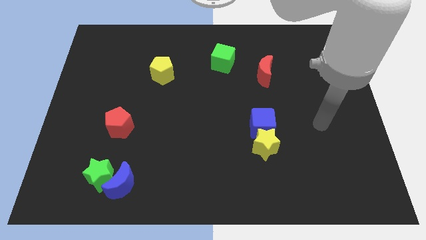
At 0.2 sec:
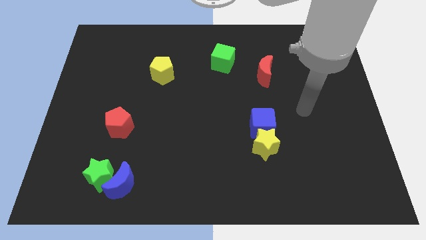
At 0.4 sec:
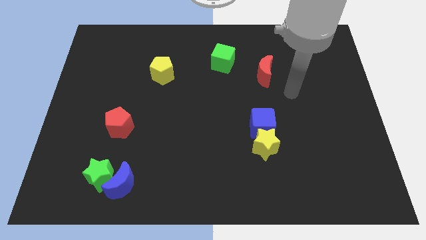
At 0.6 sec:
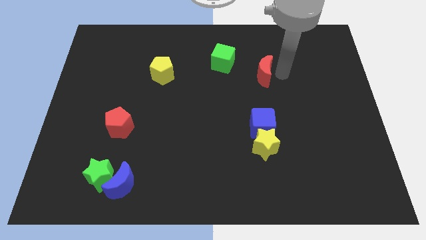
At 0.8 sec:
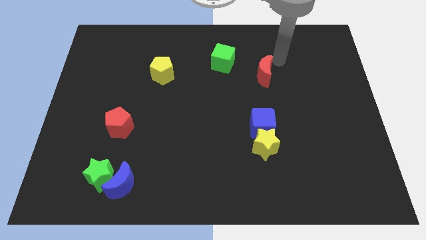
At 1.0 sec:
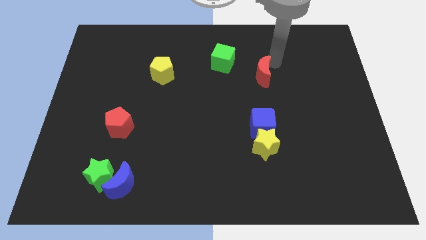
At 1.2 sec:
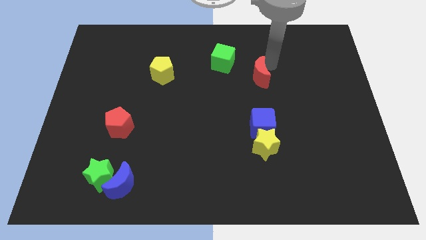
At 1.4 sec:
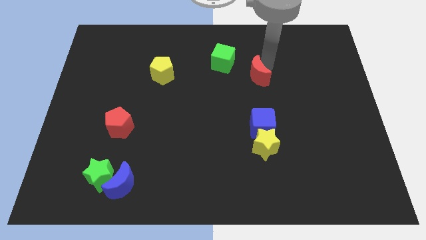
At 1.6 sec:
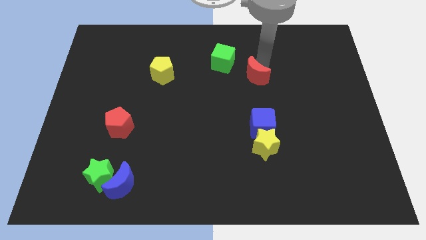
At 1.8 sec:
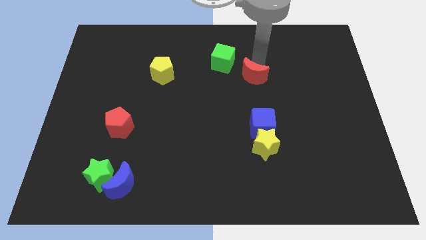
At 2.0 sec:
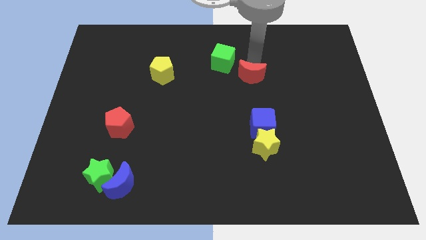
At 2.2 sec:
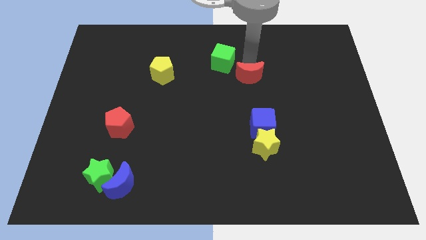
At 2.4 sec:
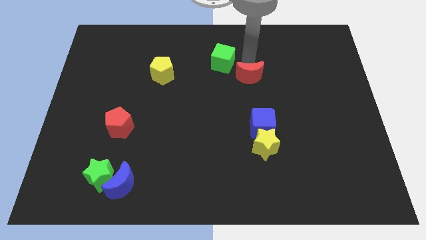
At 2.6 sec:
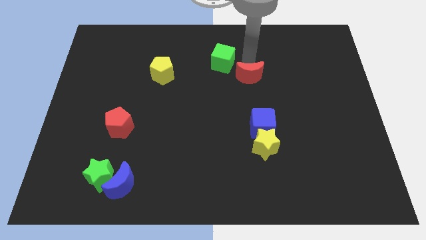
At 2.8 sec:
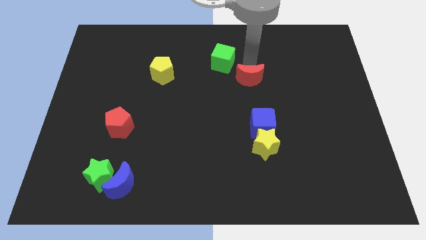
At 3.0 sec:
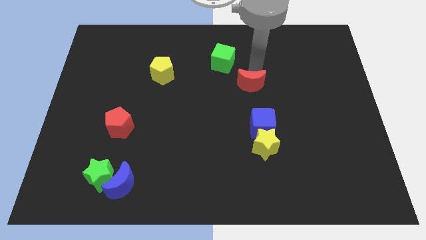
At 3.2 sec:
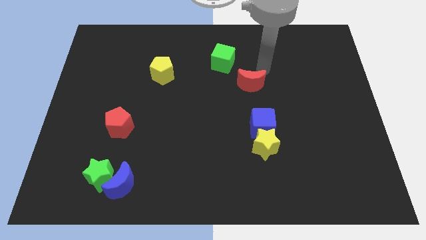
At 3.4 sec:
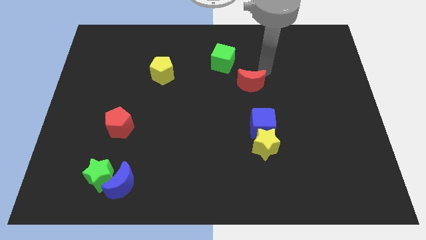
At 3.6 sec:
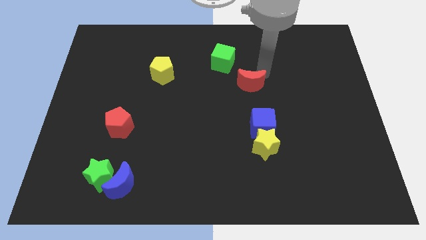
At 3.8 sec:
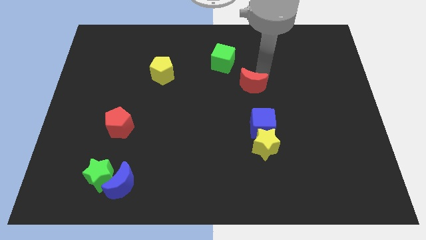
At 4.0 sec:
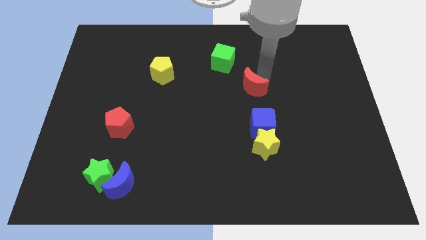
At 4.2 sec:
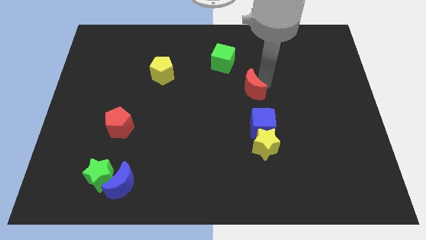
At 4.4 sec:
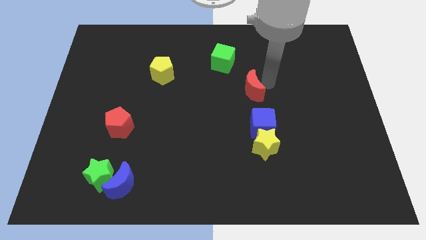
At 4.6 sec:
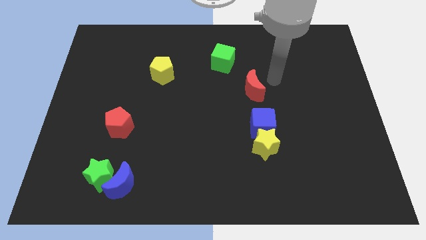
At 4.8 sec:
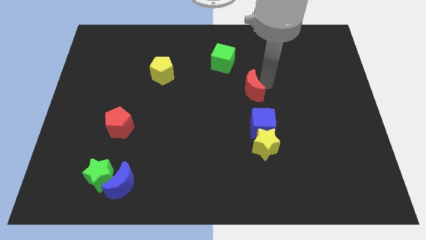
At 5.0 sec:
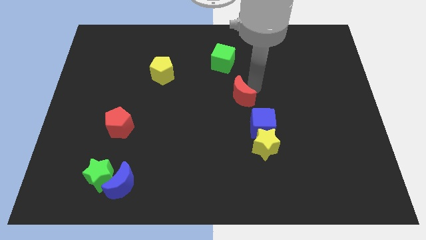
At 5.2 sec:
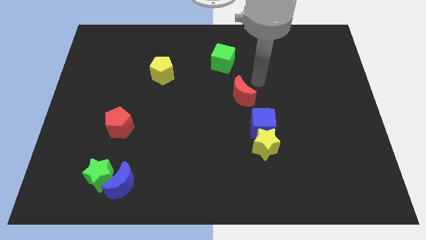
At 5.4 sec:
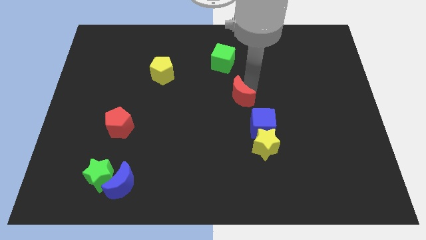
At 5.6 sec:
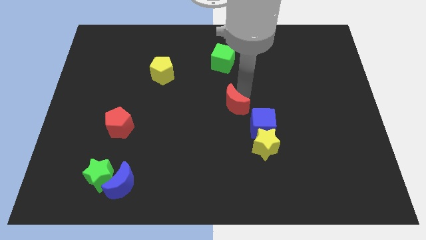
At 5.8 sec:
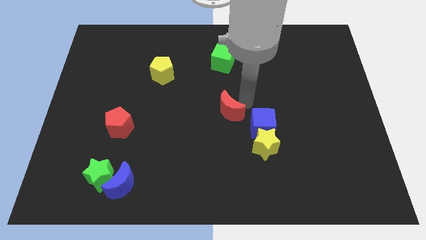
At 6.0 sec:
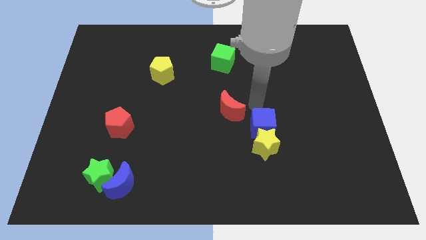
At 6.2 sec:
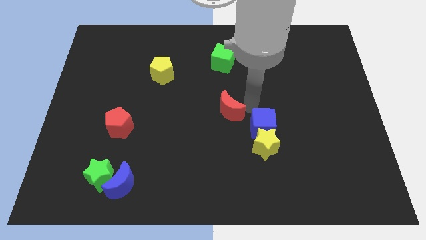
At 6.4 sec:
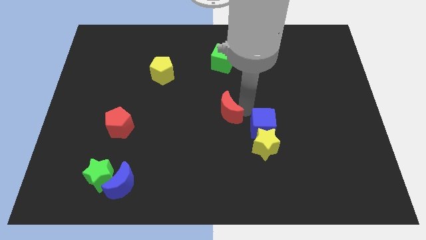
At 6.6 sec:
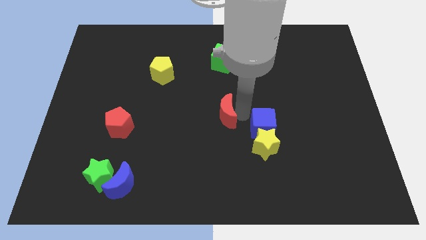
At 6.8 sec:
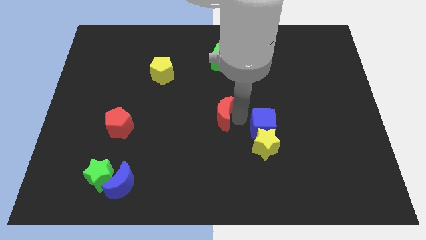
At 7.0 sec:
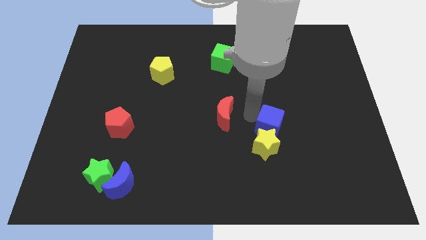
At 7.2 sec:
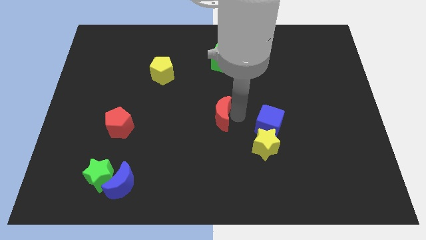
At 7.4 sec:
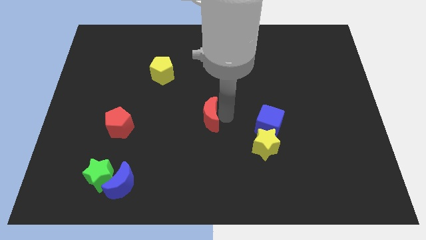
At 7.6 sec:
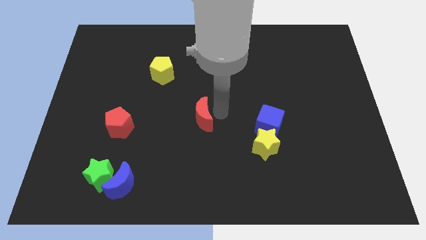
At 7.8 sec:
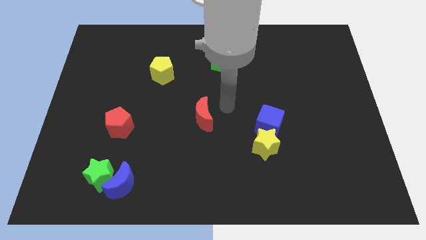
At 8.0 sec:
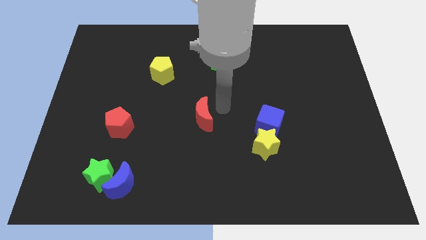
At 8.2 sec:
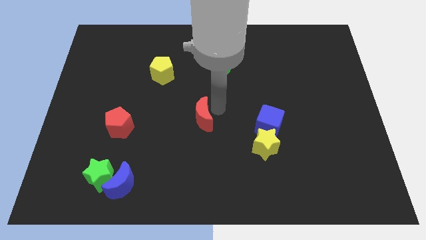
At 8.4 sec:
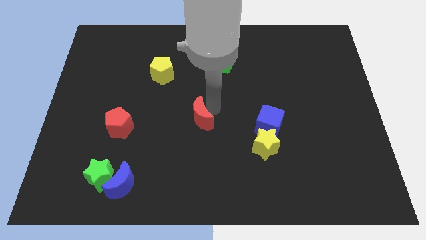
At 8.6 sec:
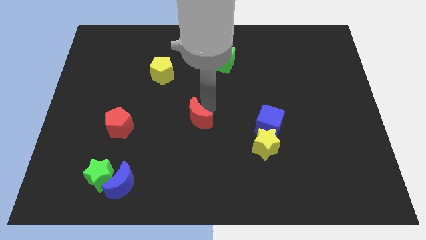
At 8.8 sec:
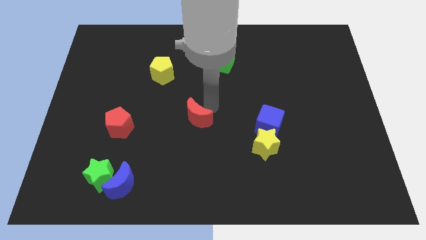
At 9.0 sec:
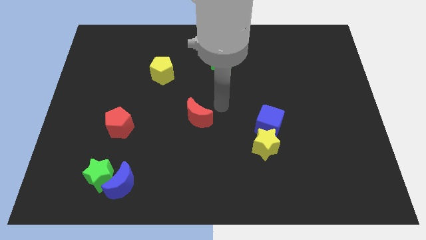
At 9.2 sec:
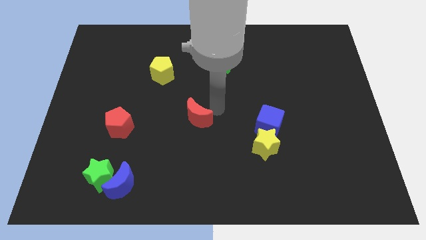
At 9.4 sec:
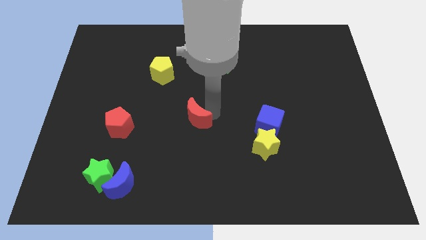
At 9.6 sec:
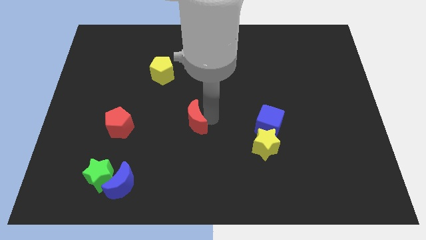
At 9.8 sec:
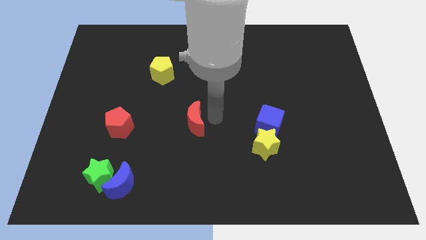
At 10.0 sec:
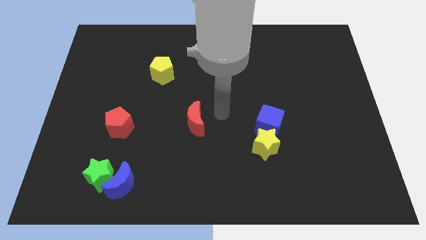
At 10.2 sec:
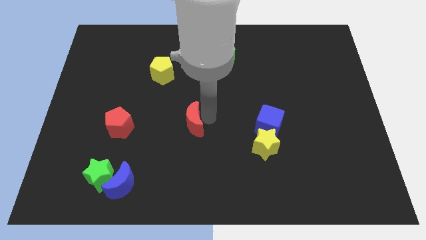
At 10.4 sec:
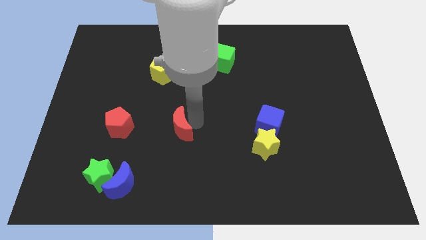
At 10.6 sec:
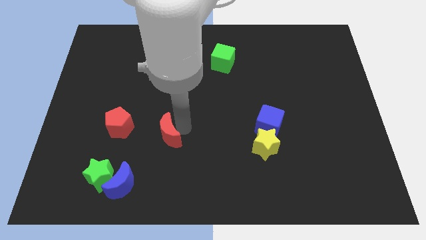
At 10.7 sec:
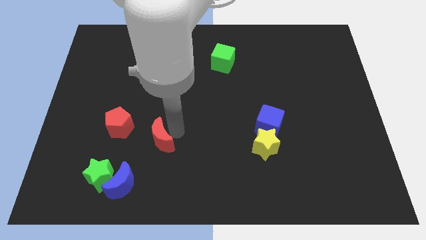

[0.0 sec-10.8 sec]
slide the red moon to the bottom right side of the red pentagon

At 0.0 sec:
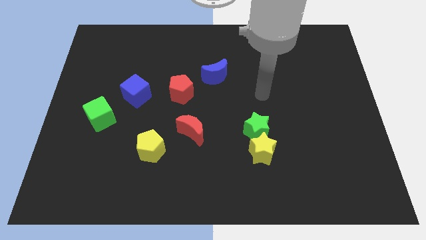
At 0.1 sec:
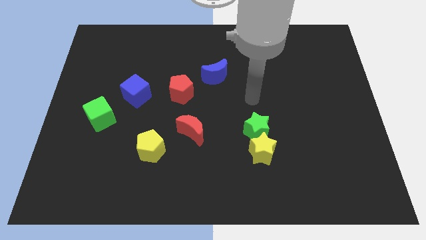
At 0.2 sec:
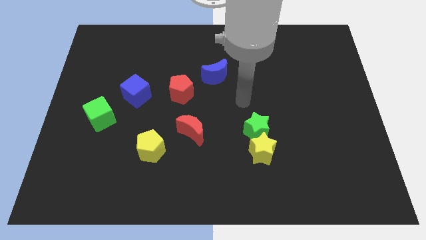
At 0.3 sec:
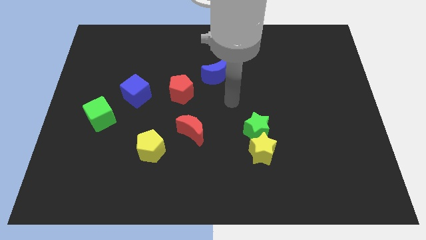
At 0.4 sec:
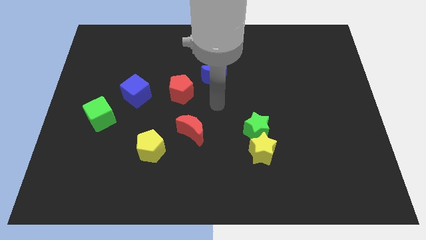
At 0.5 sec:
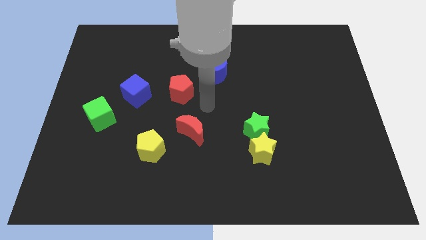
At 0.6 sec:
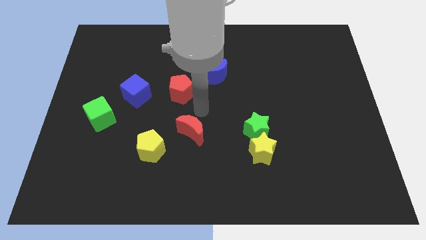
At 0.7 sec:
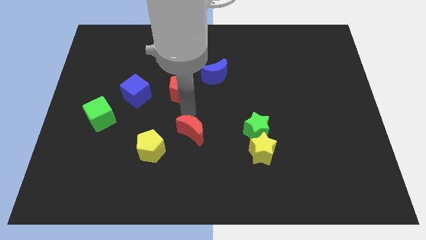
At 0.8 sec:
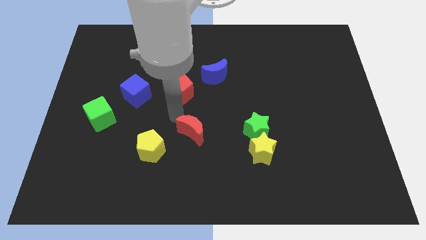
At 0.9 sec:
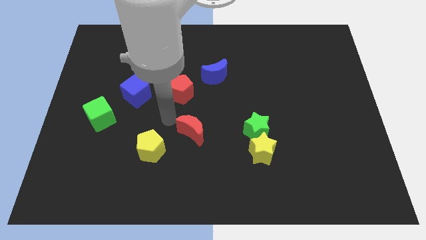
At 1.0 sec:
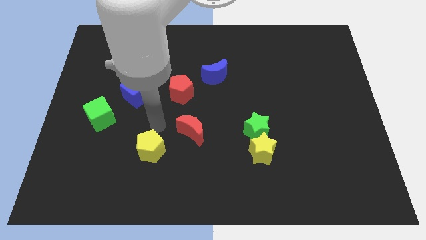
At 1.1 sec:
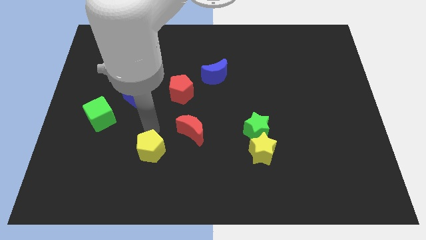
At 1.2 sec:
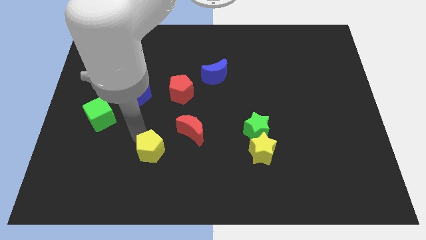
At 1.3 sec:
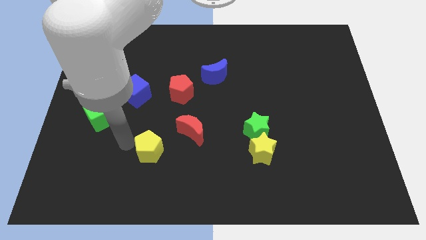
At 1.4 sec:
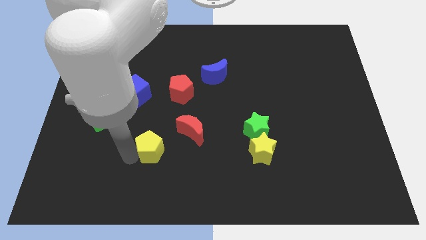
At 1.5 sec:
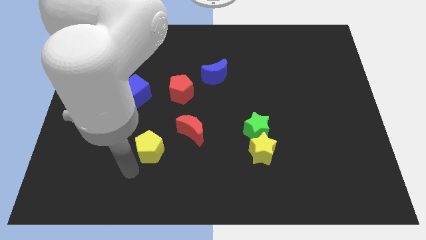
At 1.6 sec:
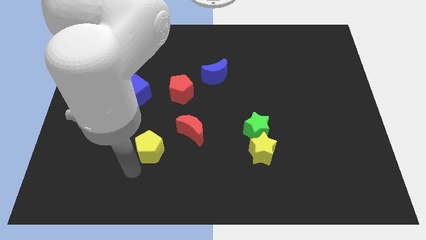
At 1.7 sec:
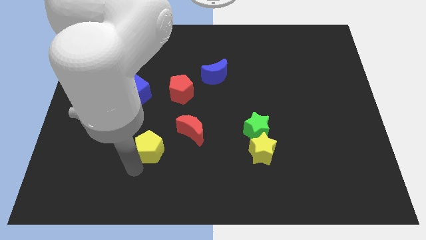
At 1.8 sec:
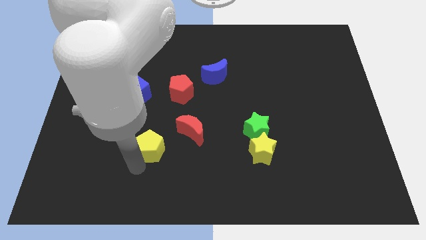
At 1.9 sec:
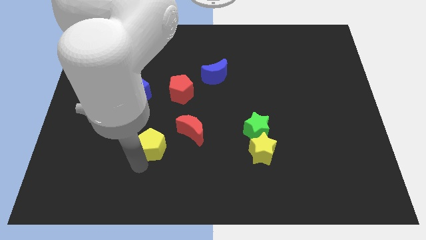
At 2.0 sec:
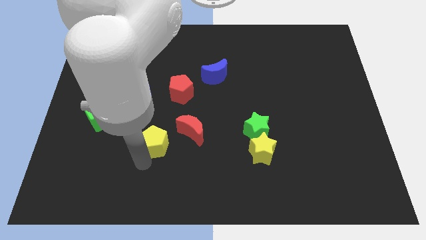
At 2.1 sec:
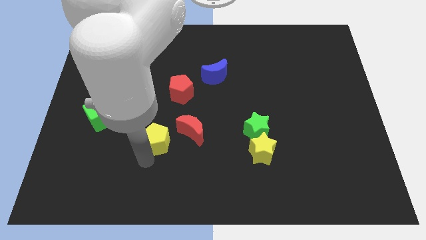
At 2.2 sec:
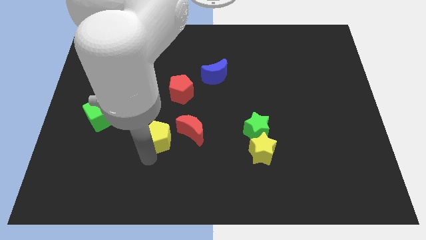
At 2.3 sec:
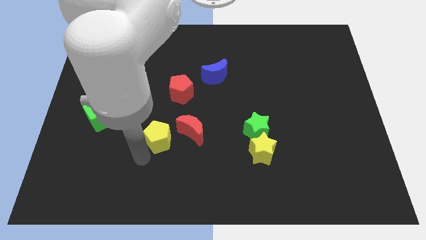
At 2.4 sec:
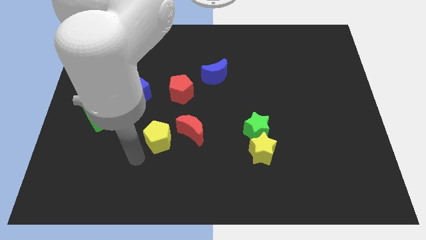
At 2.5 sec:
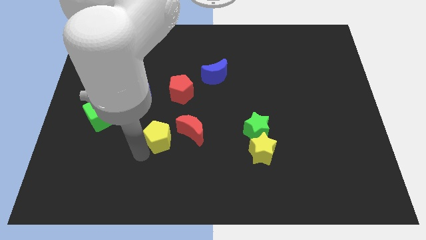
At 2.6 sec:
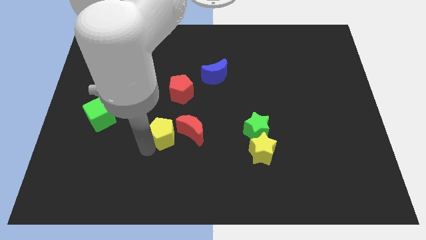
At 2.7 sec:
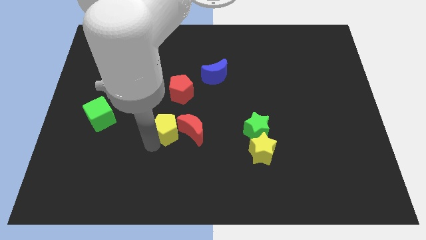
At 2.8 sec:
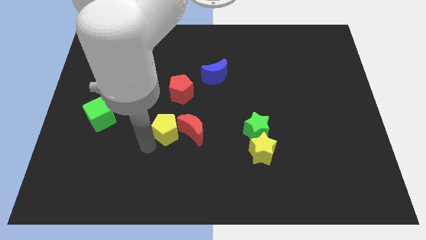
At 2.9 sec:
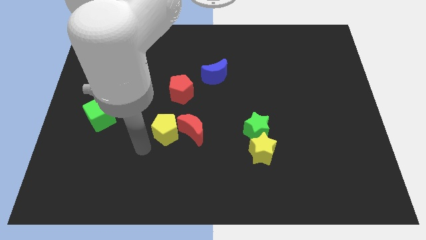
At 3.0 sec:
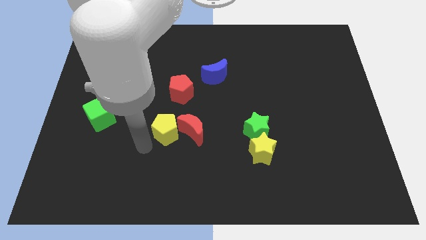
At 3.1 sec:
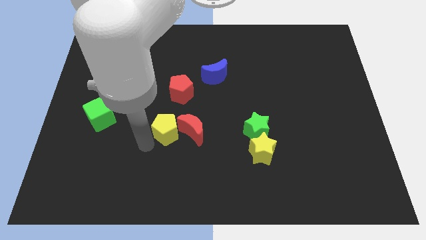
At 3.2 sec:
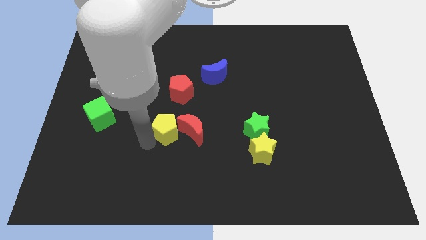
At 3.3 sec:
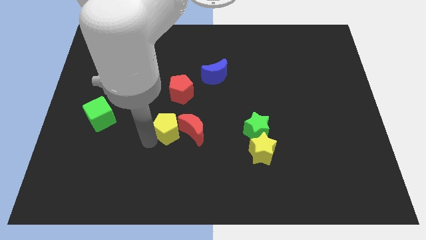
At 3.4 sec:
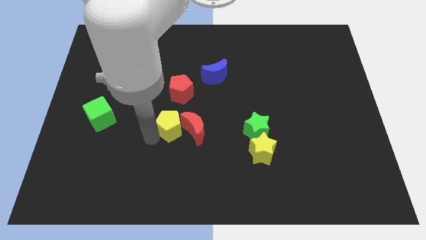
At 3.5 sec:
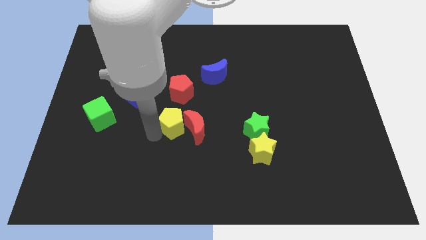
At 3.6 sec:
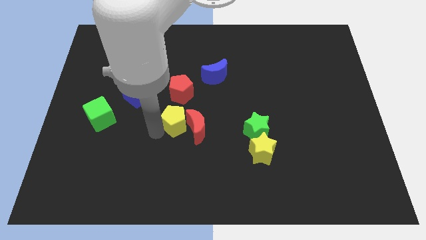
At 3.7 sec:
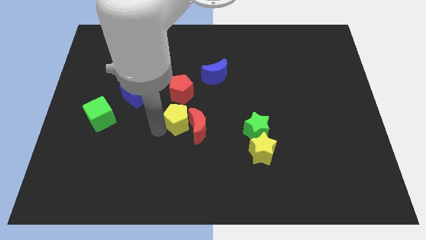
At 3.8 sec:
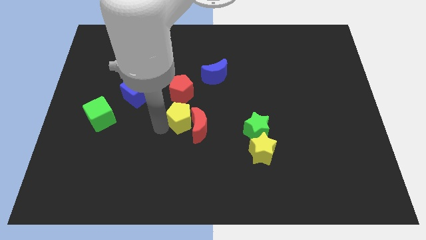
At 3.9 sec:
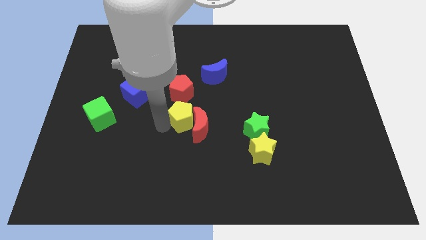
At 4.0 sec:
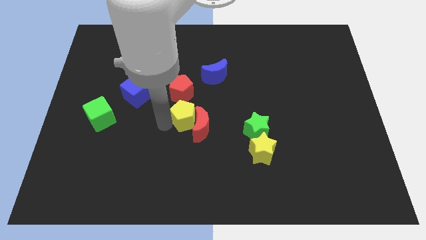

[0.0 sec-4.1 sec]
slide the yellow pentagon above the red moon
